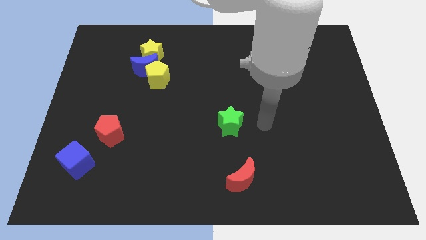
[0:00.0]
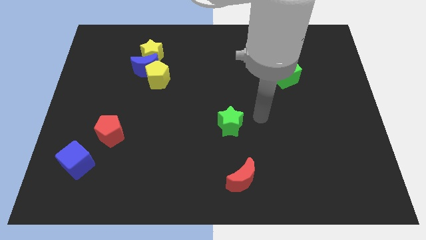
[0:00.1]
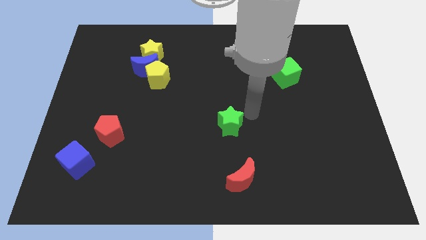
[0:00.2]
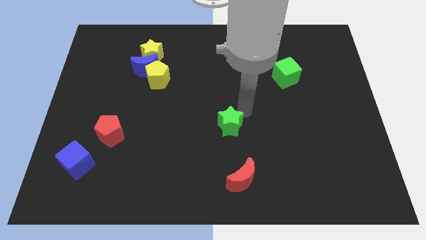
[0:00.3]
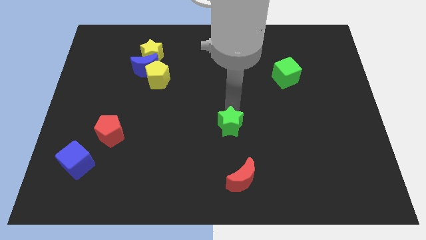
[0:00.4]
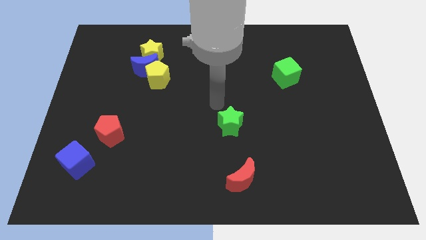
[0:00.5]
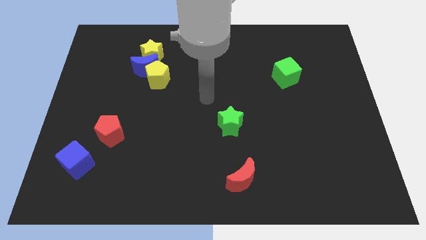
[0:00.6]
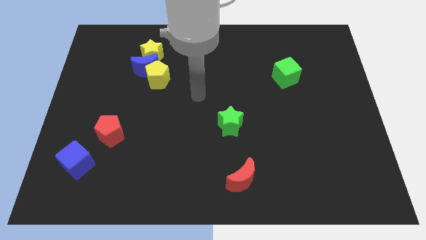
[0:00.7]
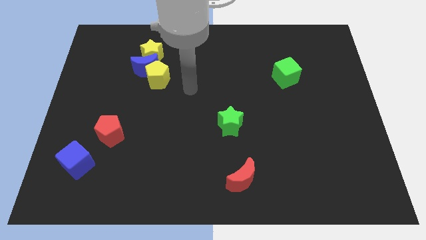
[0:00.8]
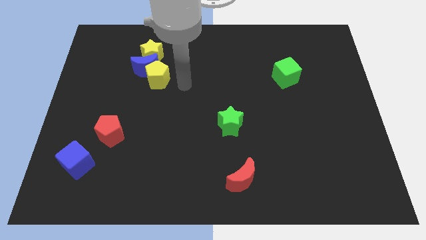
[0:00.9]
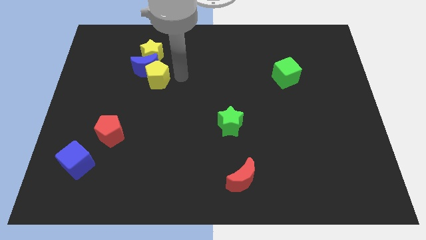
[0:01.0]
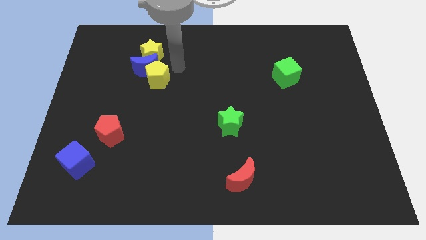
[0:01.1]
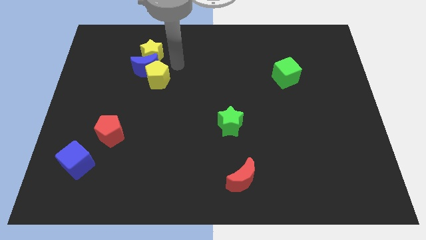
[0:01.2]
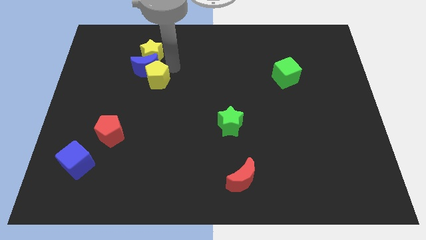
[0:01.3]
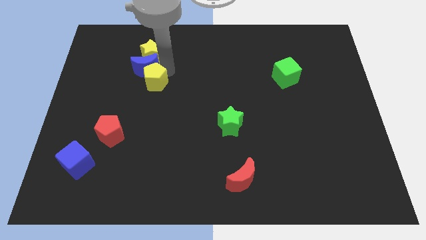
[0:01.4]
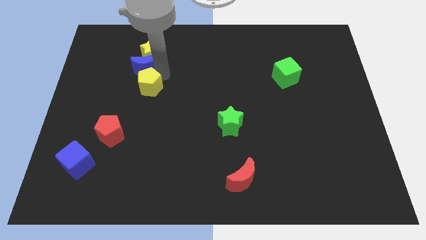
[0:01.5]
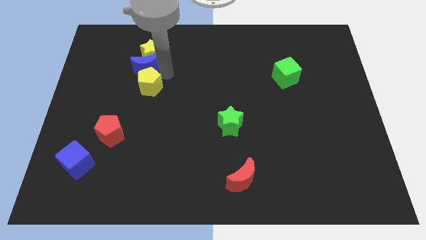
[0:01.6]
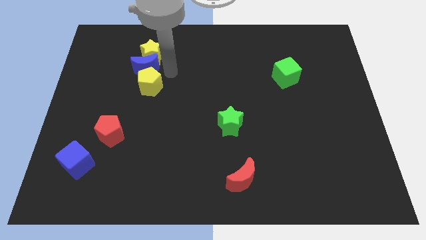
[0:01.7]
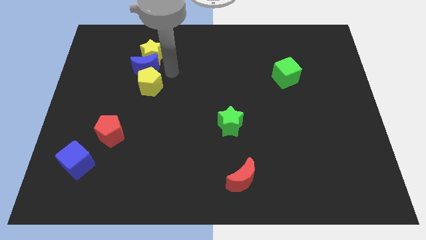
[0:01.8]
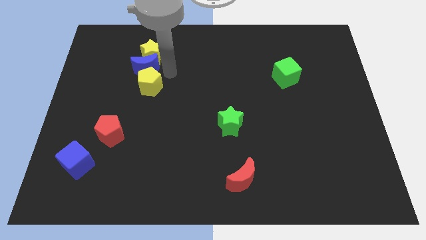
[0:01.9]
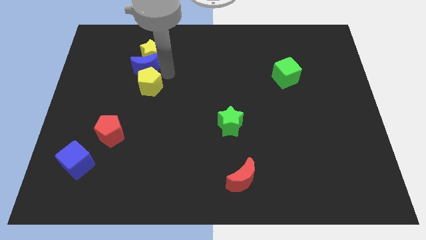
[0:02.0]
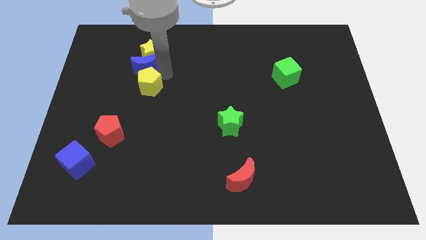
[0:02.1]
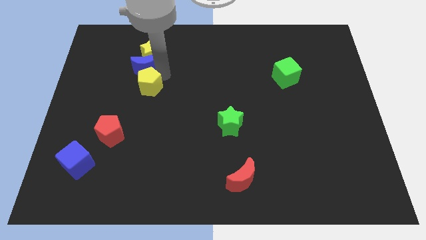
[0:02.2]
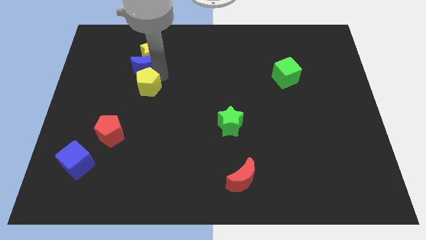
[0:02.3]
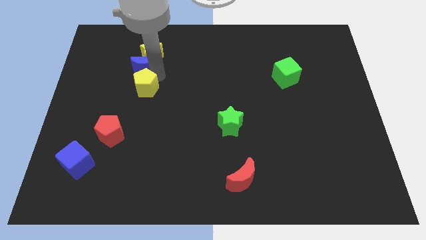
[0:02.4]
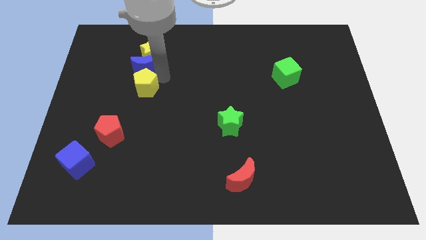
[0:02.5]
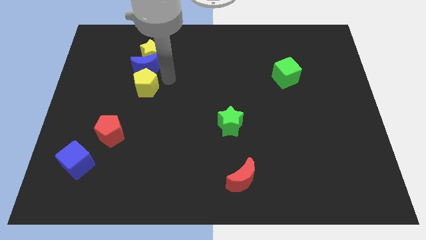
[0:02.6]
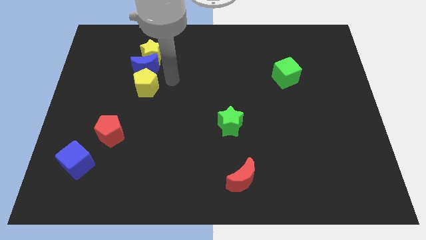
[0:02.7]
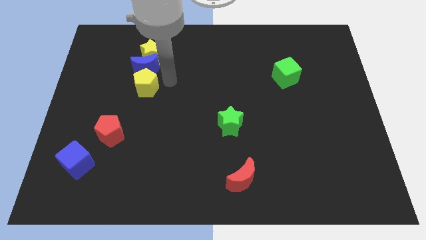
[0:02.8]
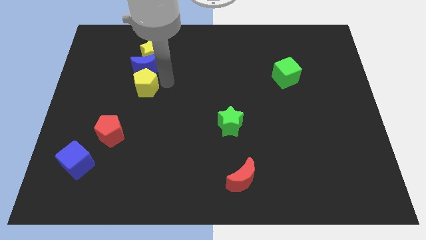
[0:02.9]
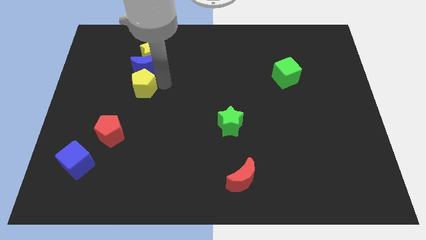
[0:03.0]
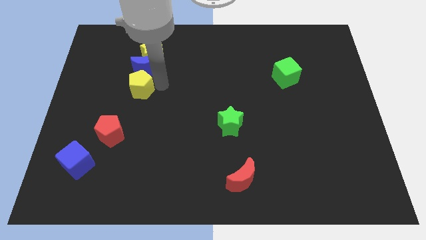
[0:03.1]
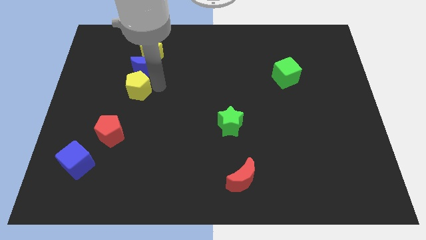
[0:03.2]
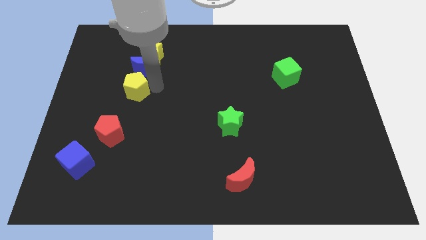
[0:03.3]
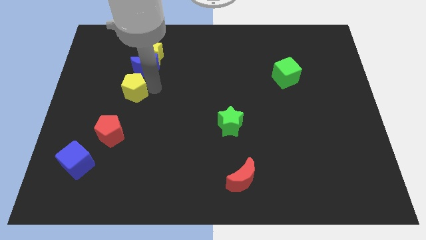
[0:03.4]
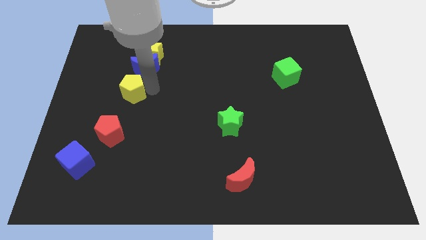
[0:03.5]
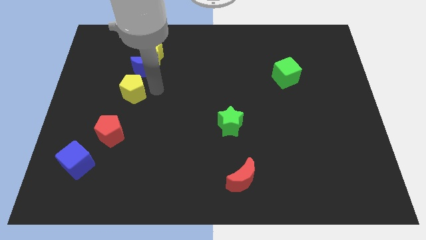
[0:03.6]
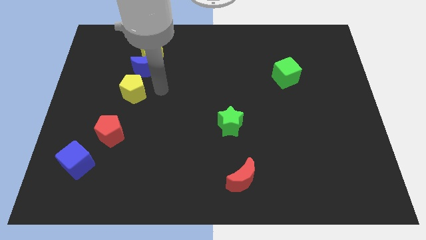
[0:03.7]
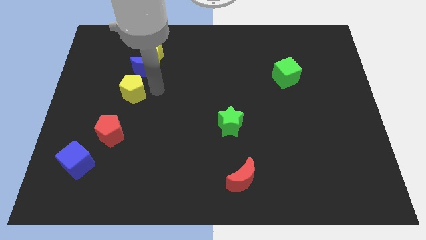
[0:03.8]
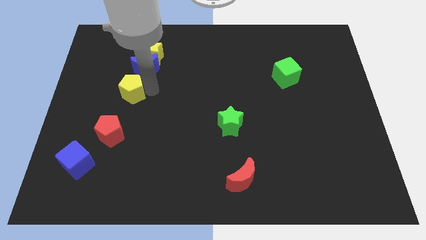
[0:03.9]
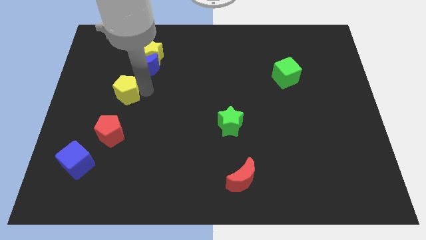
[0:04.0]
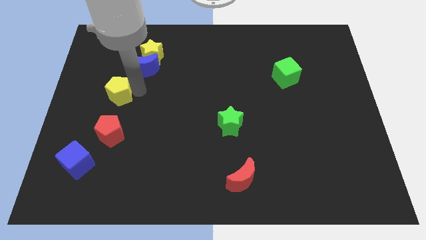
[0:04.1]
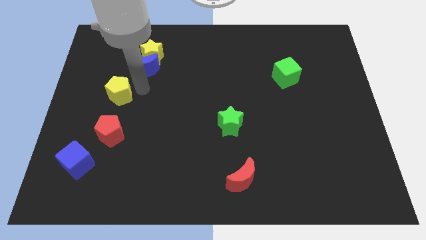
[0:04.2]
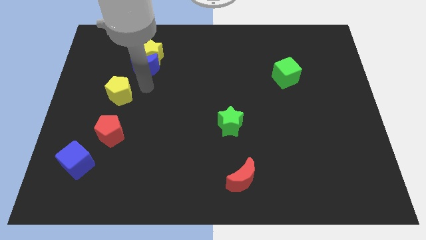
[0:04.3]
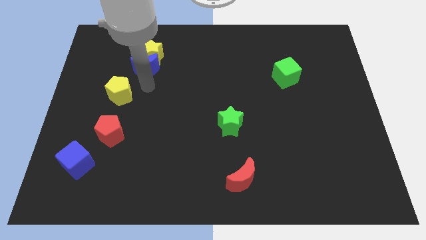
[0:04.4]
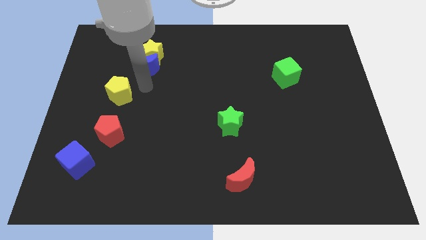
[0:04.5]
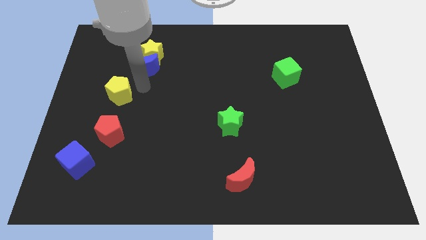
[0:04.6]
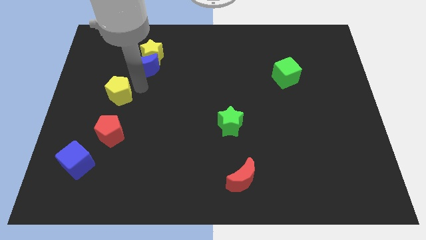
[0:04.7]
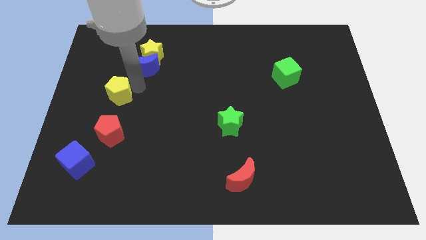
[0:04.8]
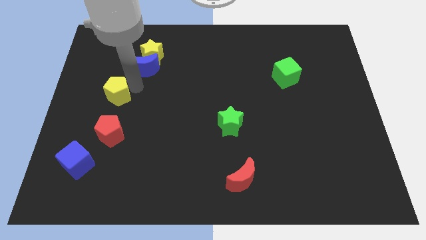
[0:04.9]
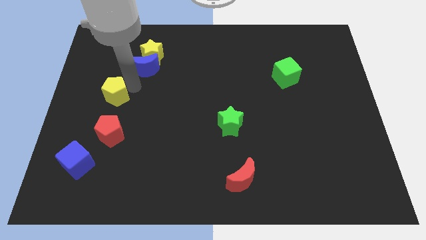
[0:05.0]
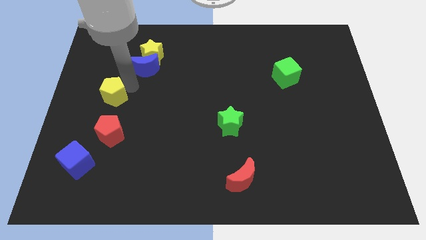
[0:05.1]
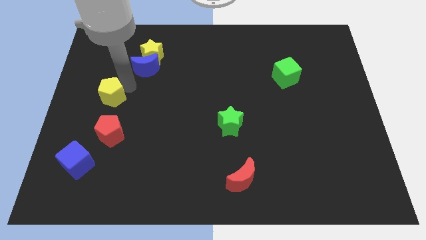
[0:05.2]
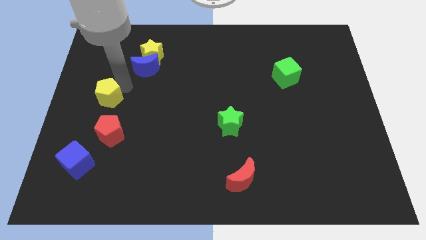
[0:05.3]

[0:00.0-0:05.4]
slide the yellow pentagon to the left side of the board

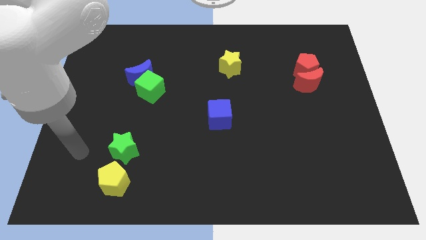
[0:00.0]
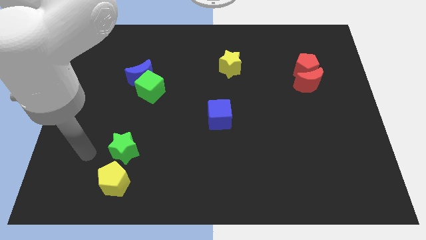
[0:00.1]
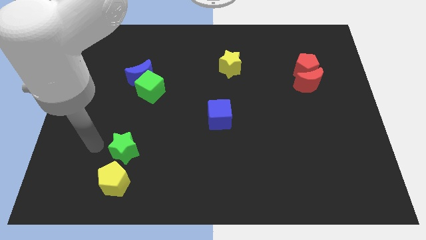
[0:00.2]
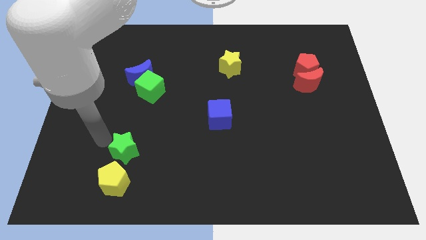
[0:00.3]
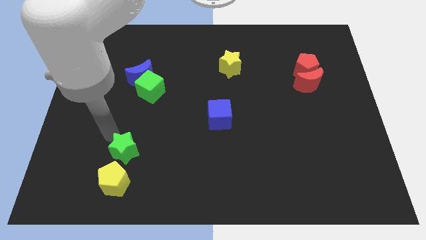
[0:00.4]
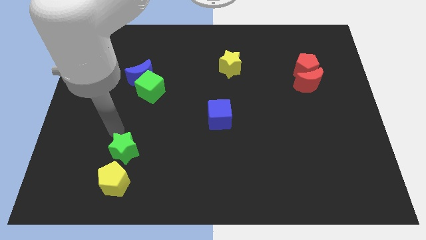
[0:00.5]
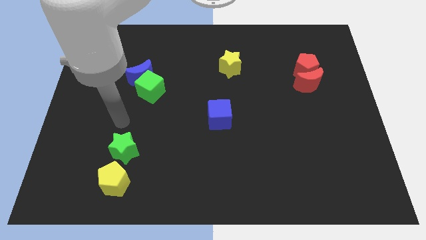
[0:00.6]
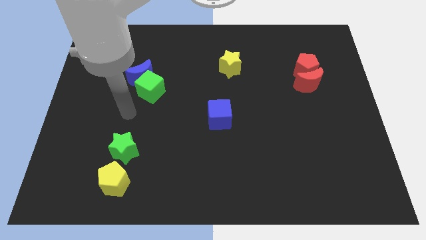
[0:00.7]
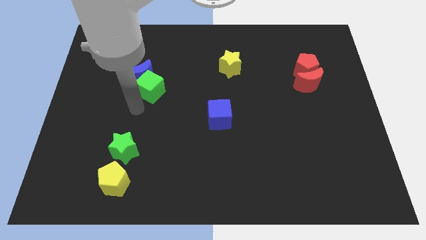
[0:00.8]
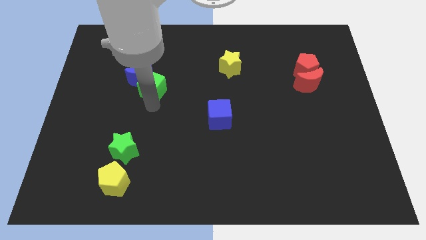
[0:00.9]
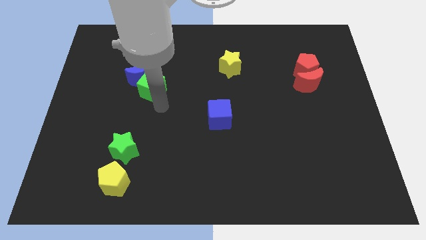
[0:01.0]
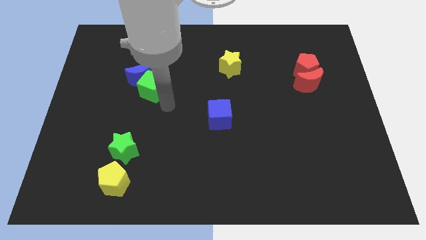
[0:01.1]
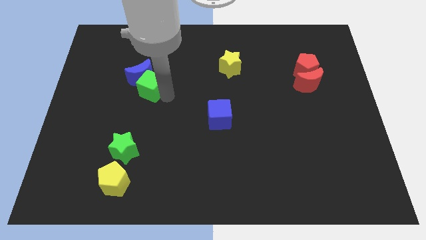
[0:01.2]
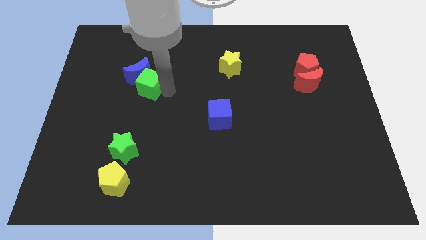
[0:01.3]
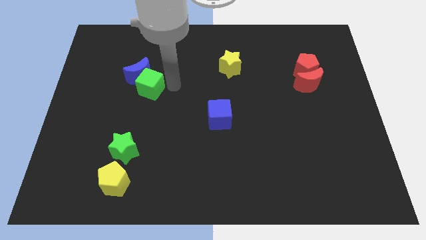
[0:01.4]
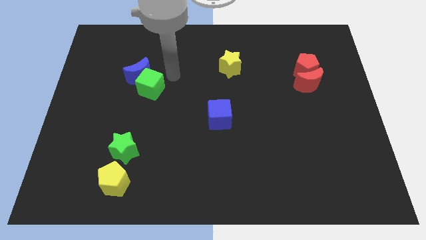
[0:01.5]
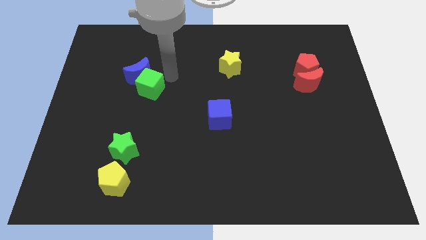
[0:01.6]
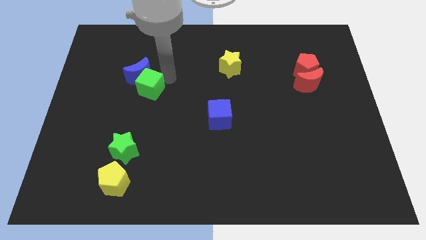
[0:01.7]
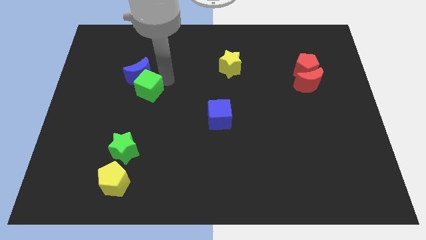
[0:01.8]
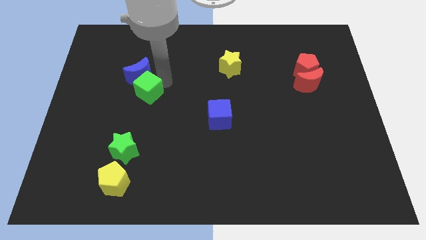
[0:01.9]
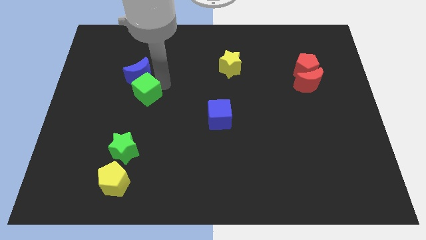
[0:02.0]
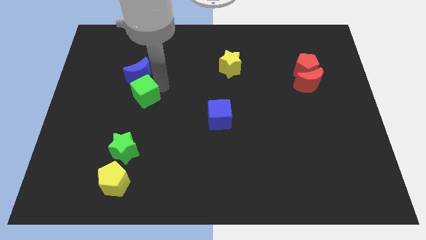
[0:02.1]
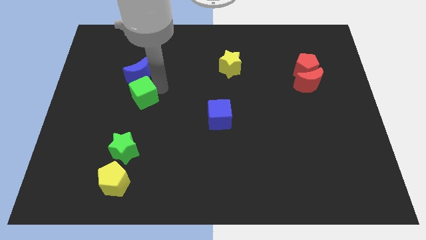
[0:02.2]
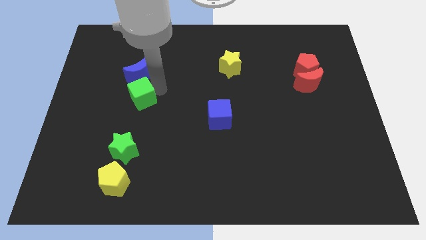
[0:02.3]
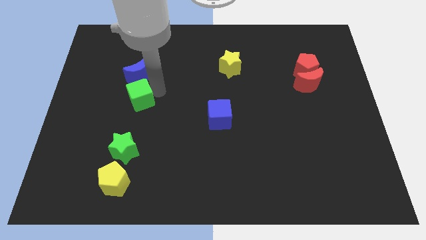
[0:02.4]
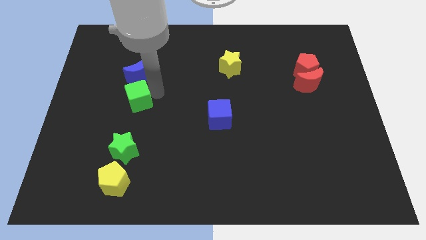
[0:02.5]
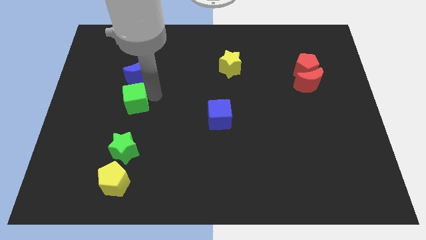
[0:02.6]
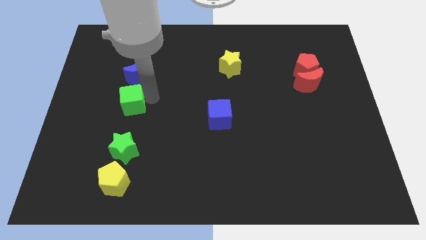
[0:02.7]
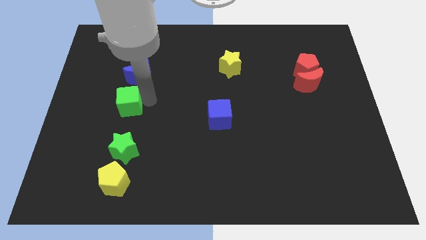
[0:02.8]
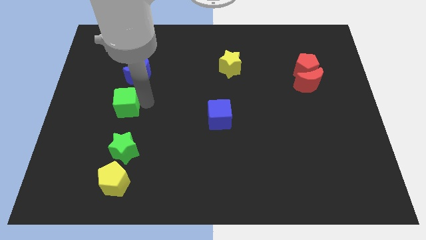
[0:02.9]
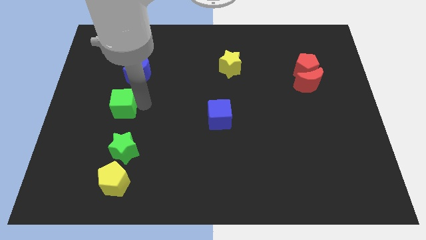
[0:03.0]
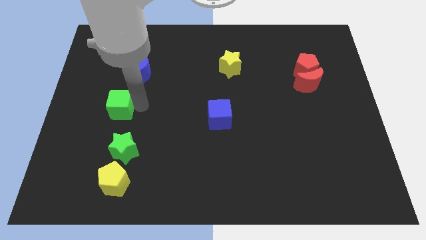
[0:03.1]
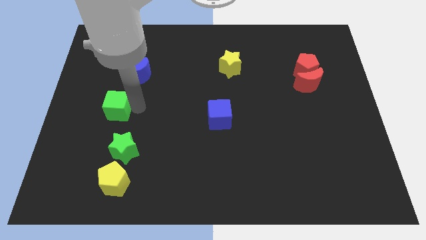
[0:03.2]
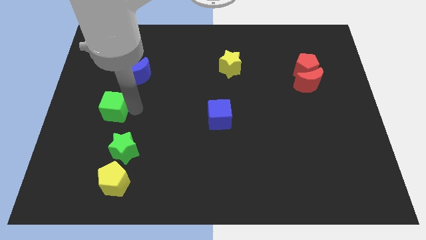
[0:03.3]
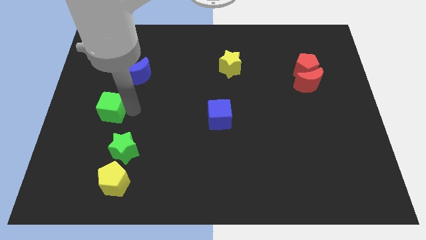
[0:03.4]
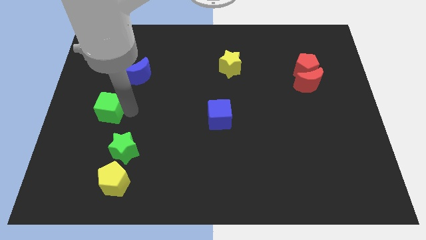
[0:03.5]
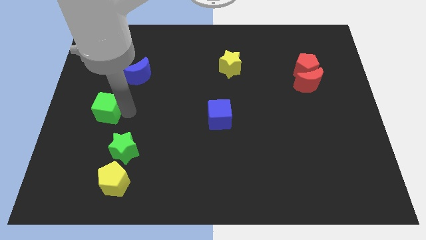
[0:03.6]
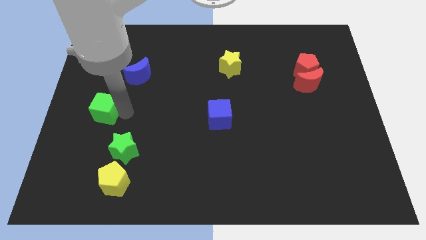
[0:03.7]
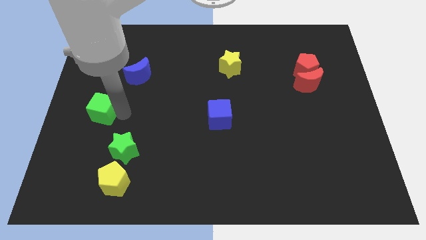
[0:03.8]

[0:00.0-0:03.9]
push the green cube to the left side of the board
